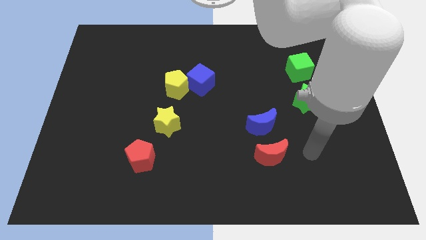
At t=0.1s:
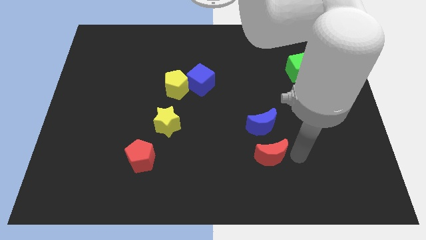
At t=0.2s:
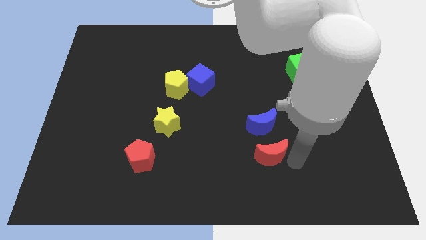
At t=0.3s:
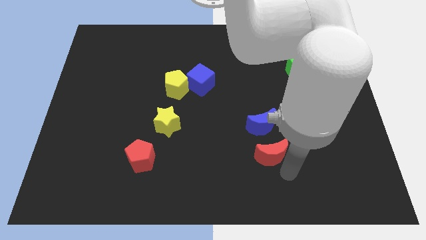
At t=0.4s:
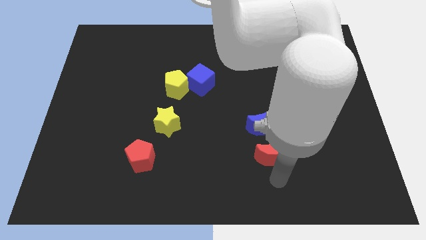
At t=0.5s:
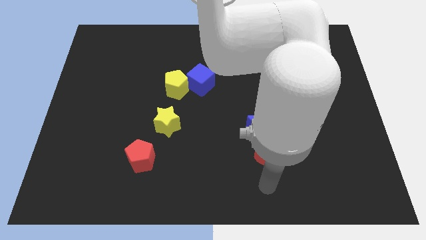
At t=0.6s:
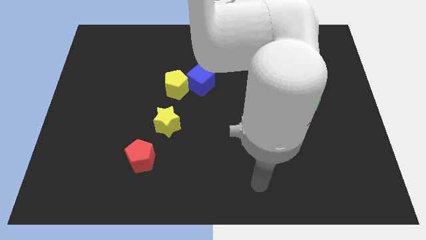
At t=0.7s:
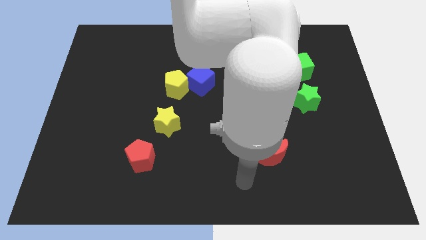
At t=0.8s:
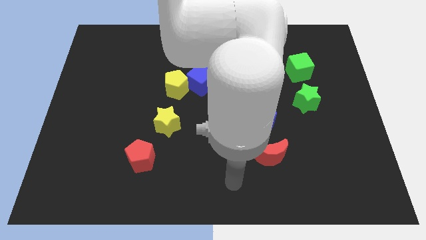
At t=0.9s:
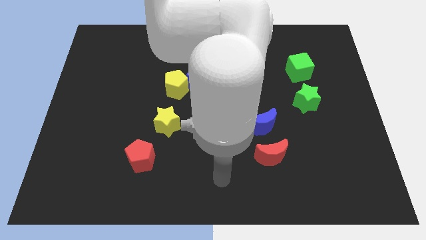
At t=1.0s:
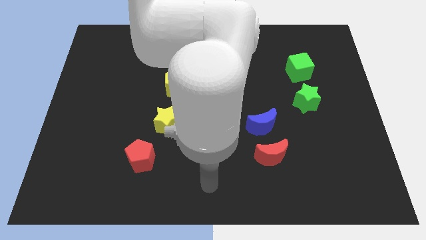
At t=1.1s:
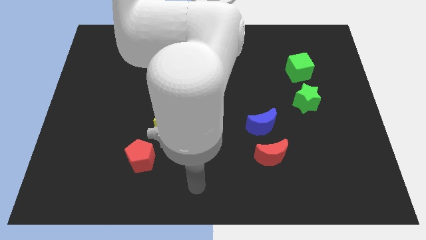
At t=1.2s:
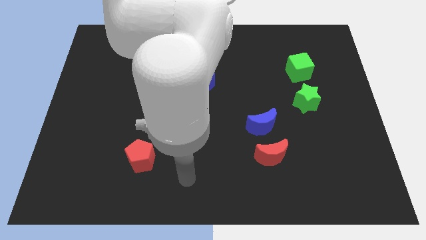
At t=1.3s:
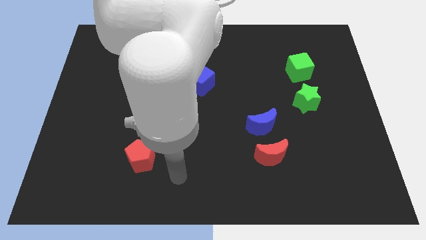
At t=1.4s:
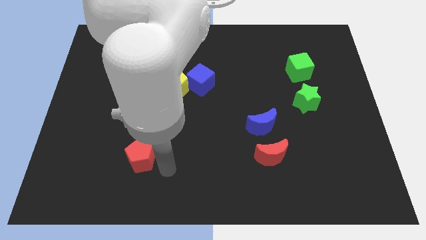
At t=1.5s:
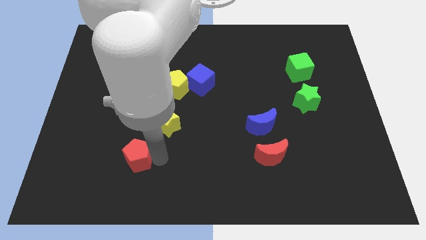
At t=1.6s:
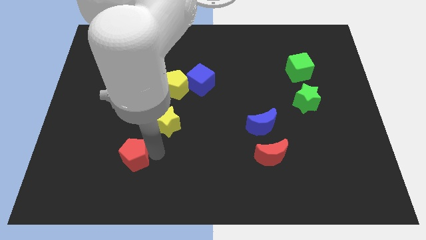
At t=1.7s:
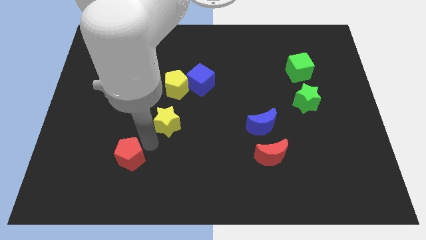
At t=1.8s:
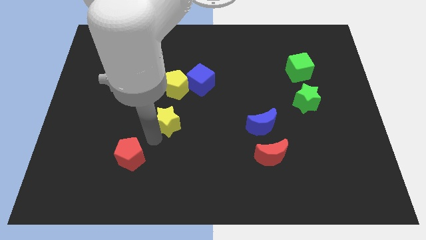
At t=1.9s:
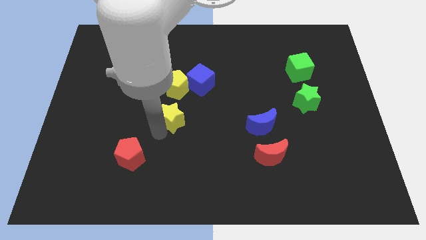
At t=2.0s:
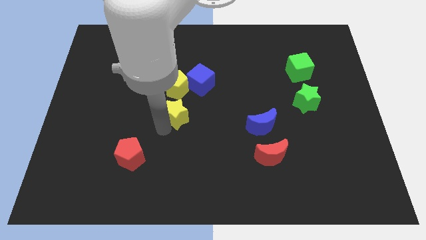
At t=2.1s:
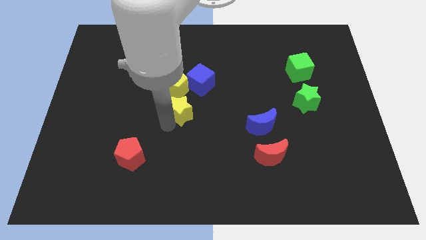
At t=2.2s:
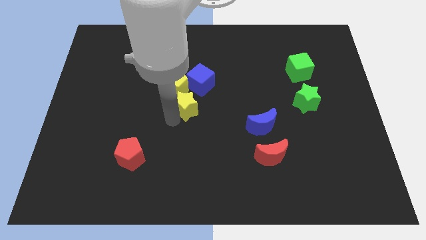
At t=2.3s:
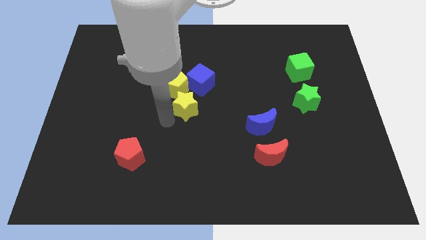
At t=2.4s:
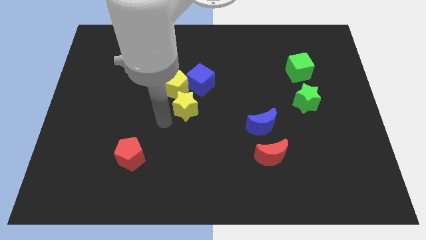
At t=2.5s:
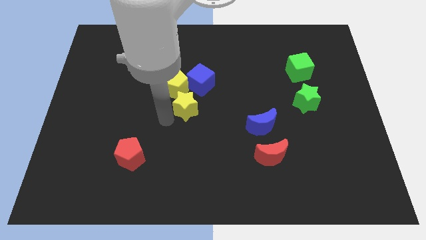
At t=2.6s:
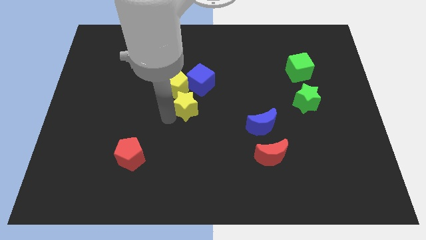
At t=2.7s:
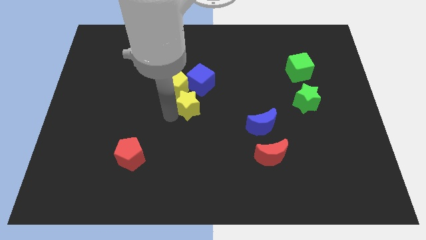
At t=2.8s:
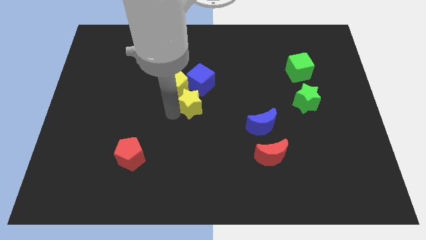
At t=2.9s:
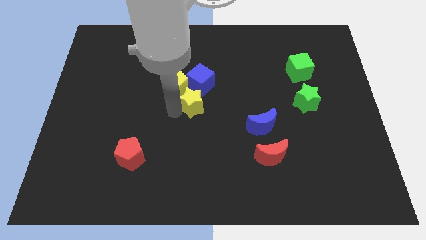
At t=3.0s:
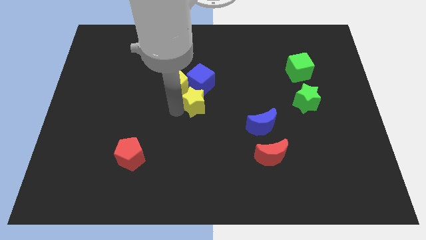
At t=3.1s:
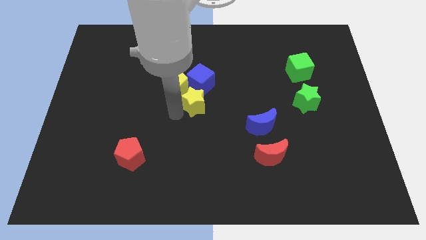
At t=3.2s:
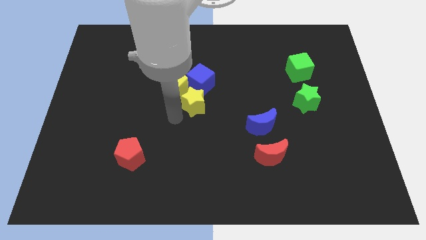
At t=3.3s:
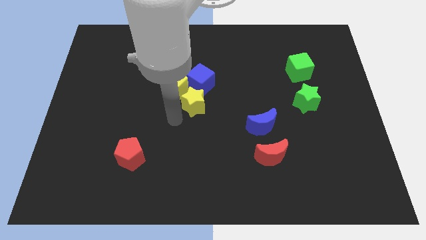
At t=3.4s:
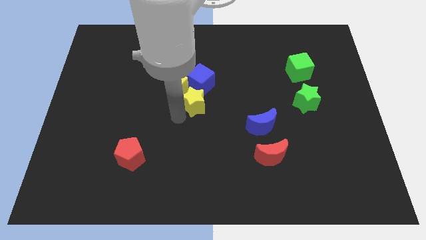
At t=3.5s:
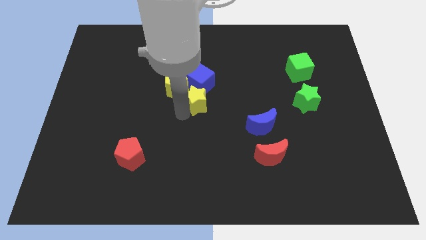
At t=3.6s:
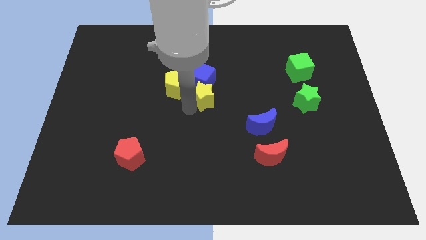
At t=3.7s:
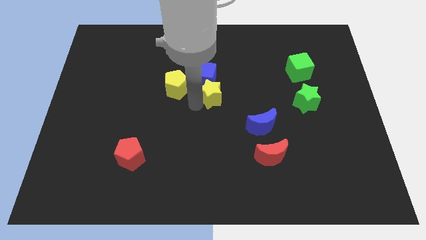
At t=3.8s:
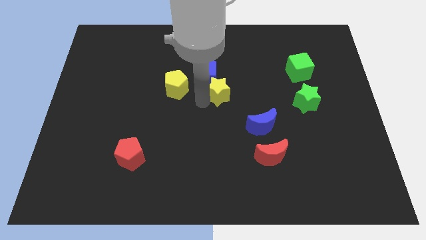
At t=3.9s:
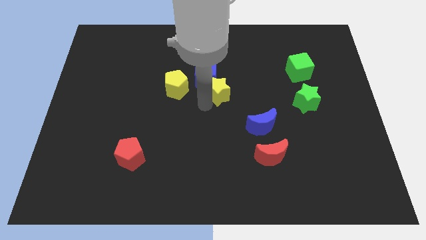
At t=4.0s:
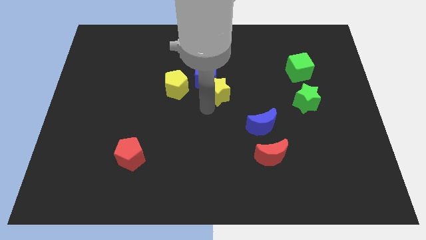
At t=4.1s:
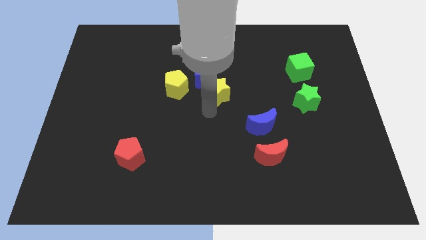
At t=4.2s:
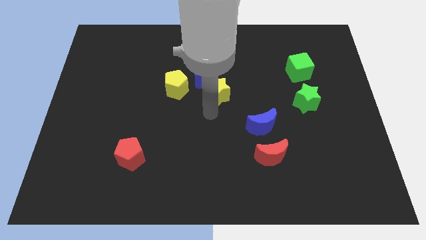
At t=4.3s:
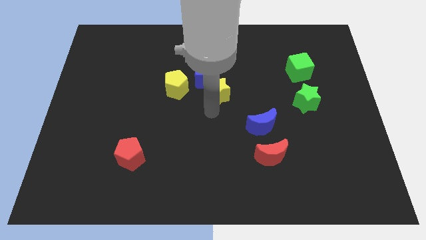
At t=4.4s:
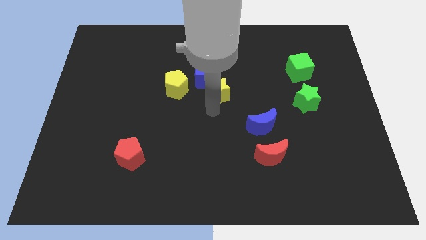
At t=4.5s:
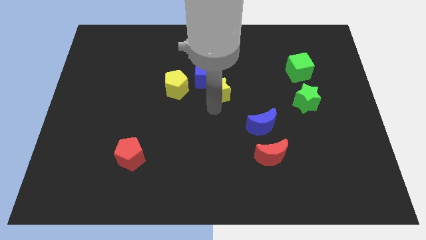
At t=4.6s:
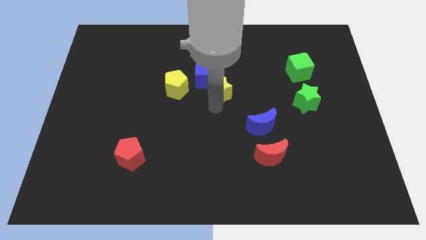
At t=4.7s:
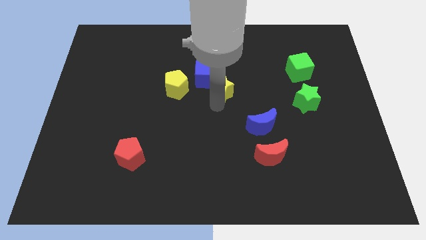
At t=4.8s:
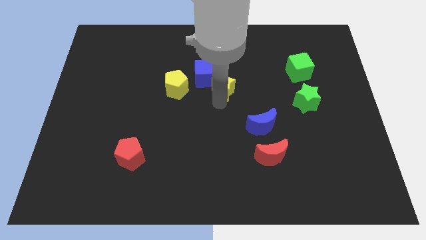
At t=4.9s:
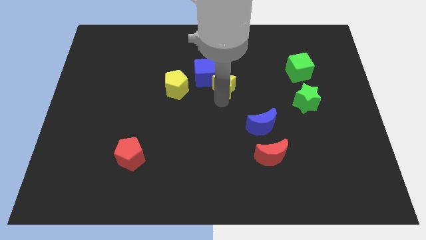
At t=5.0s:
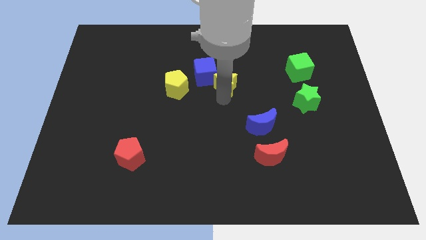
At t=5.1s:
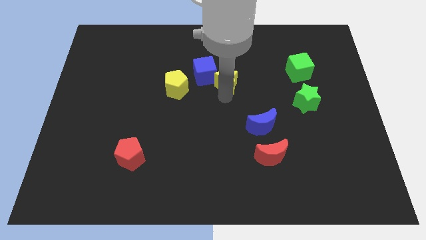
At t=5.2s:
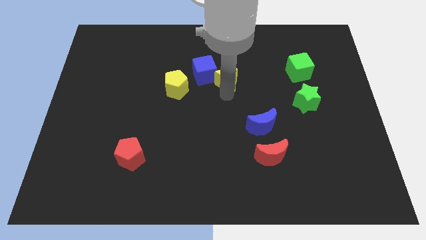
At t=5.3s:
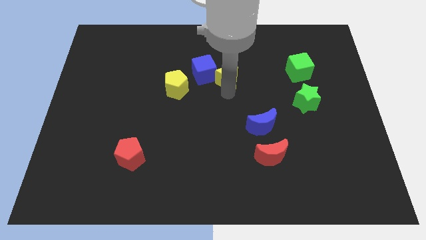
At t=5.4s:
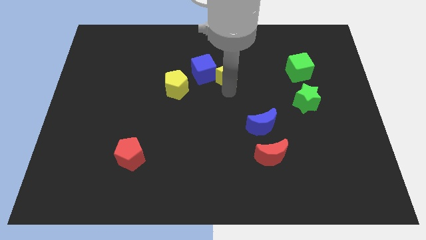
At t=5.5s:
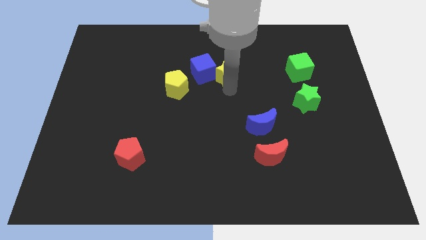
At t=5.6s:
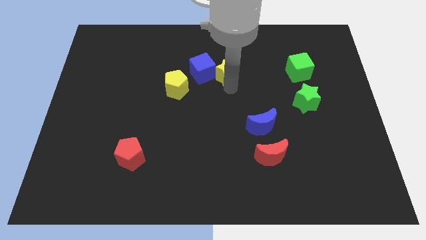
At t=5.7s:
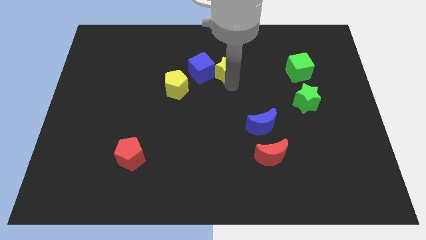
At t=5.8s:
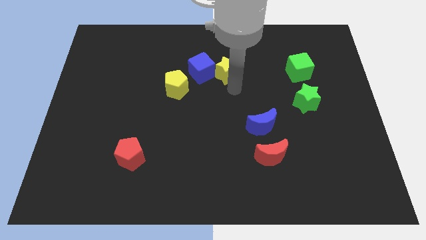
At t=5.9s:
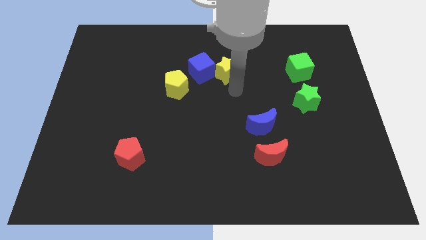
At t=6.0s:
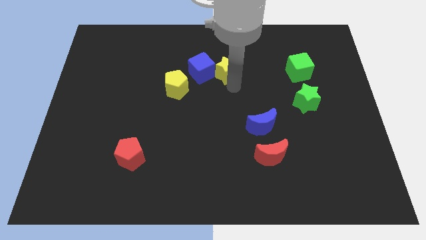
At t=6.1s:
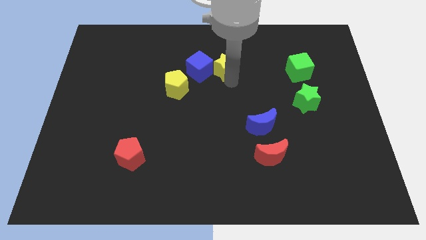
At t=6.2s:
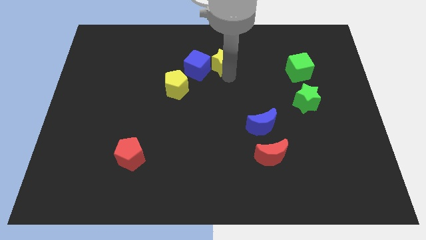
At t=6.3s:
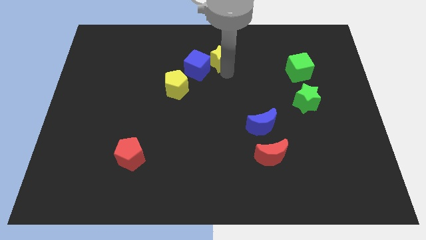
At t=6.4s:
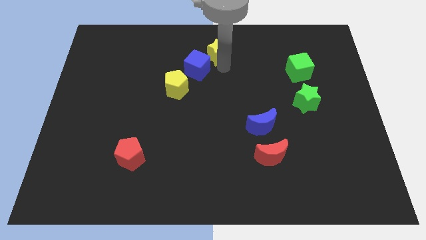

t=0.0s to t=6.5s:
push the yellow star to the top
